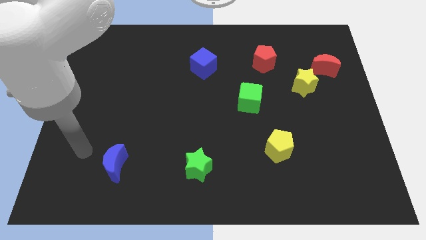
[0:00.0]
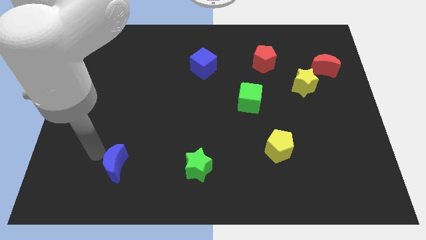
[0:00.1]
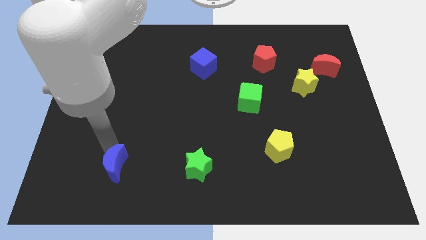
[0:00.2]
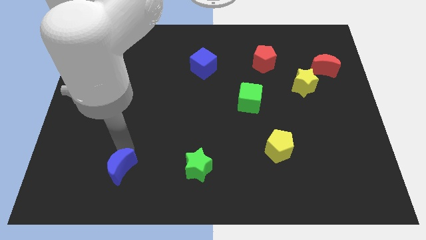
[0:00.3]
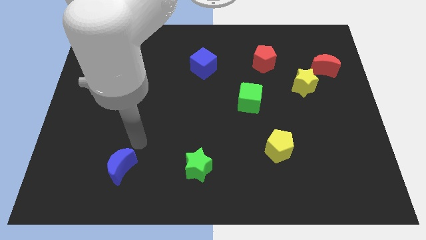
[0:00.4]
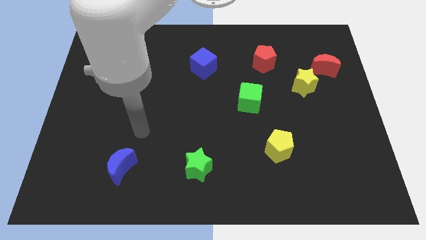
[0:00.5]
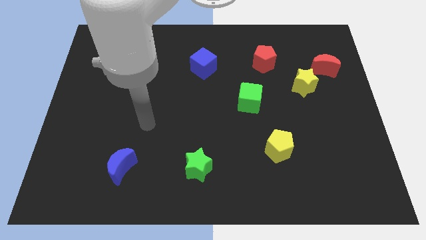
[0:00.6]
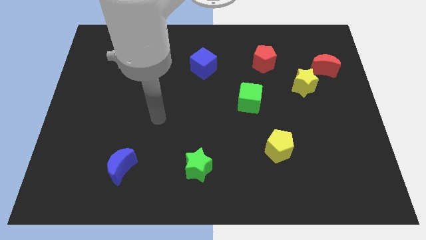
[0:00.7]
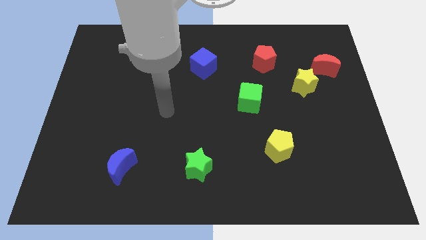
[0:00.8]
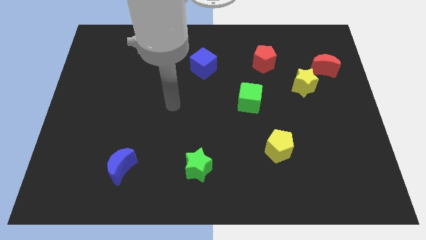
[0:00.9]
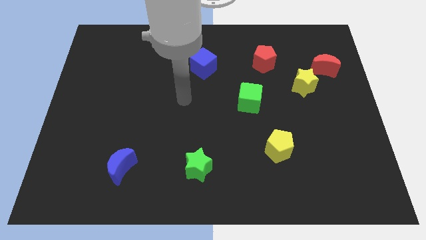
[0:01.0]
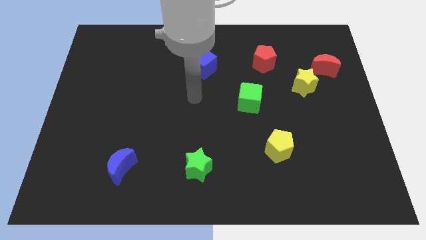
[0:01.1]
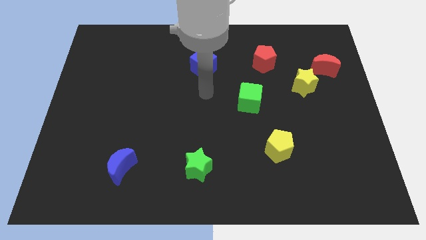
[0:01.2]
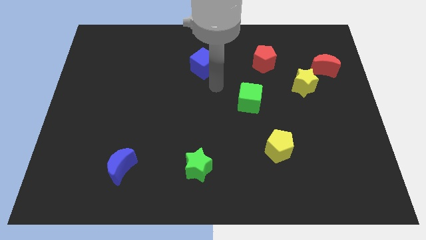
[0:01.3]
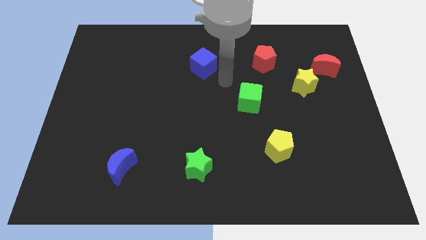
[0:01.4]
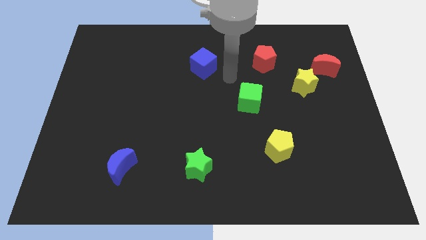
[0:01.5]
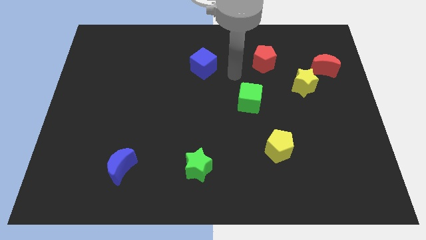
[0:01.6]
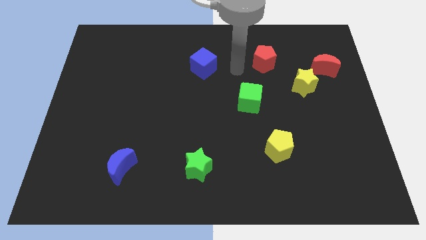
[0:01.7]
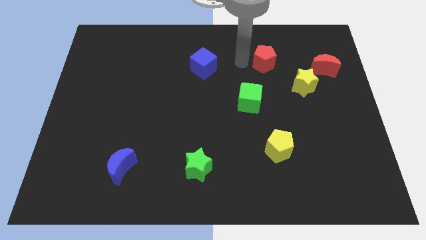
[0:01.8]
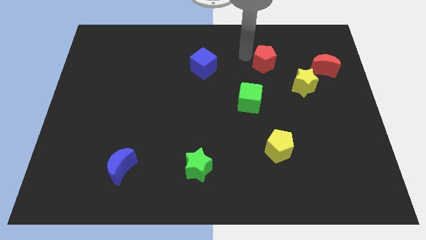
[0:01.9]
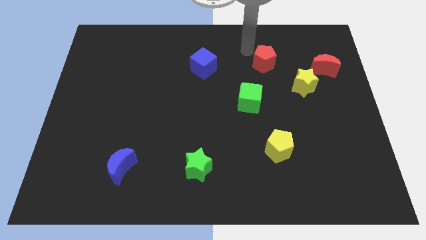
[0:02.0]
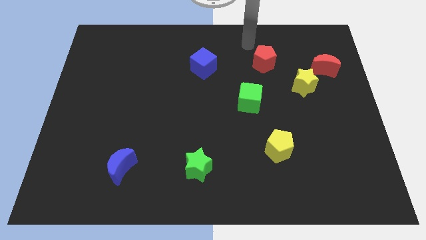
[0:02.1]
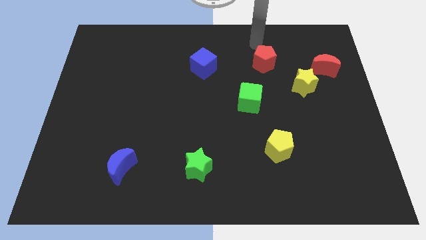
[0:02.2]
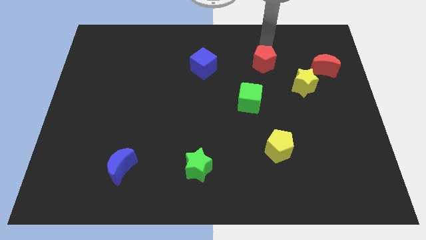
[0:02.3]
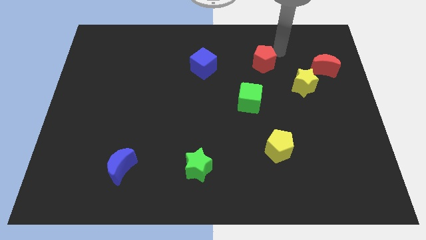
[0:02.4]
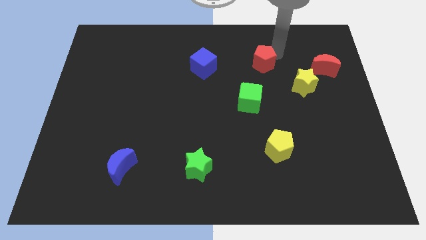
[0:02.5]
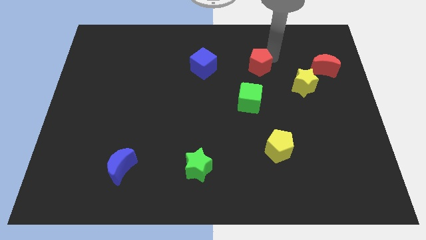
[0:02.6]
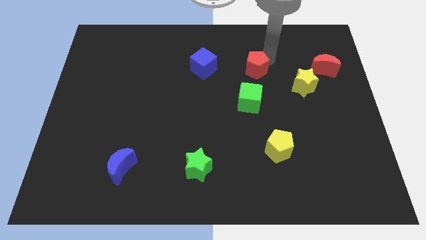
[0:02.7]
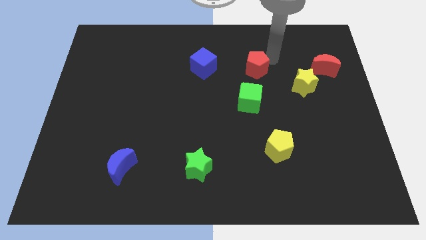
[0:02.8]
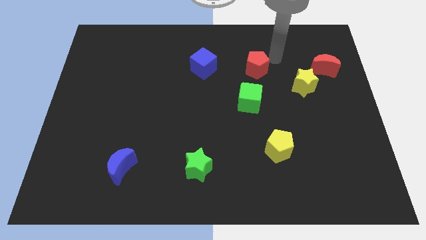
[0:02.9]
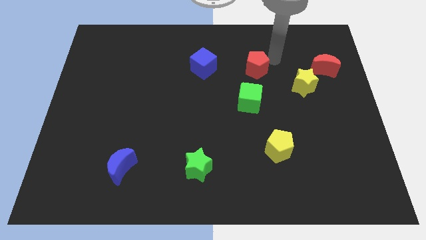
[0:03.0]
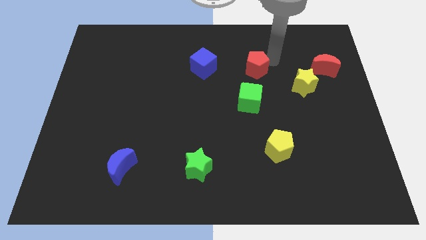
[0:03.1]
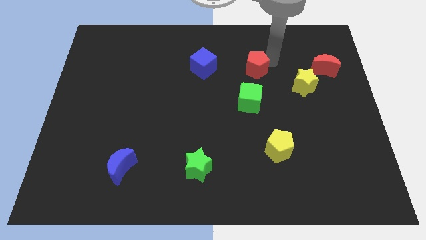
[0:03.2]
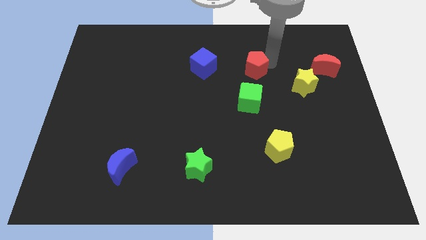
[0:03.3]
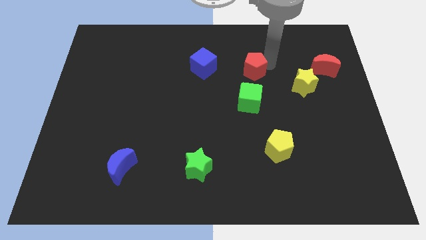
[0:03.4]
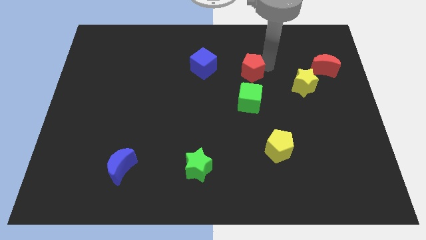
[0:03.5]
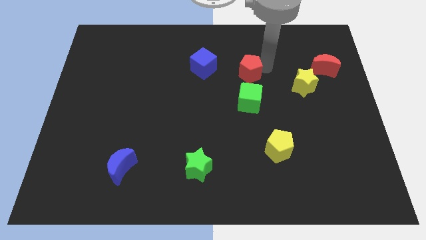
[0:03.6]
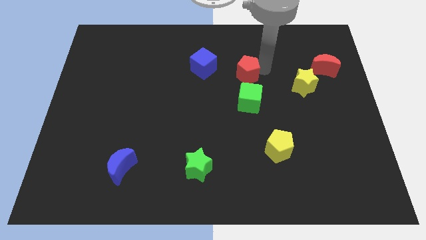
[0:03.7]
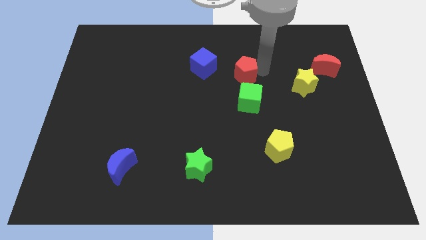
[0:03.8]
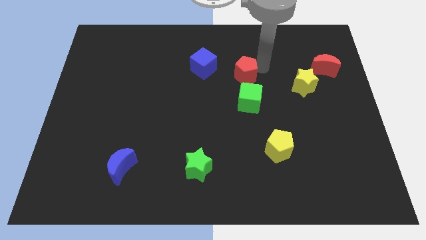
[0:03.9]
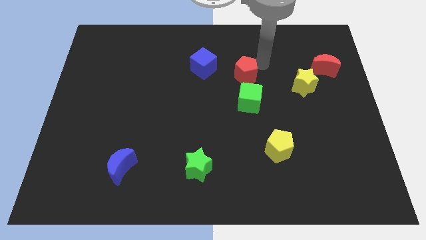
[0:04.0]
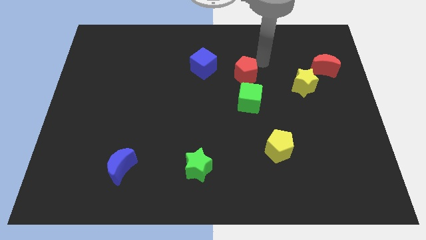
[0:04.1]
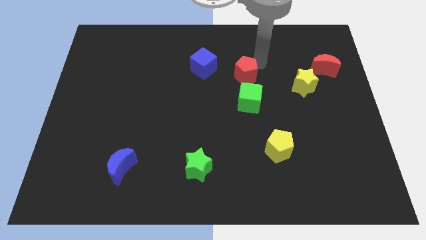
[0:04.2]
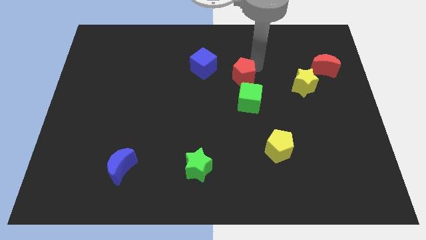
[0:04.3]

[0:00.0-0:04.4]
slightly slide the red pentagon diagonally down and to the left

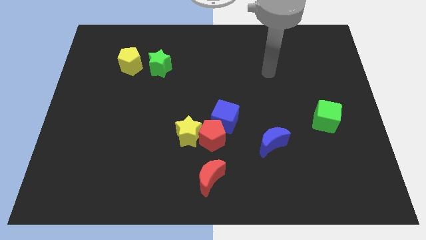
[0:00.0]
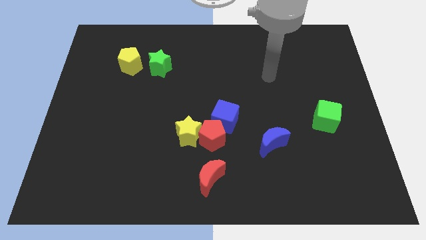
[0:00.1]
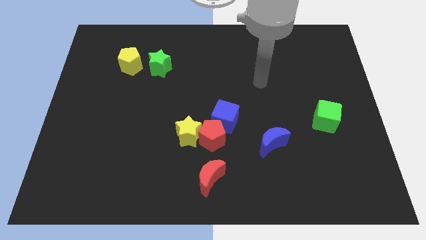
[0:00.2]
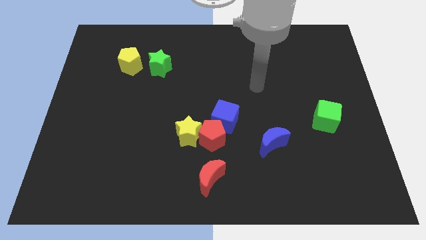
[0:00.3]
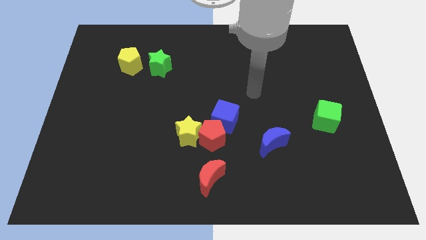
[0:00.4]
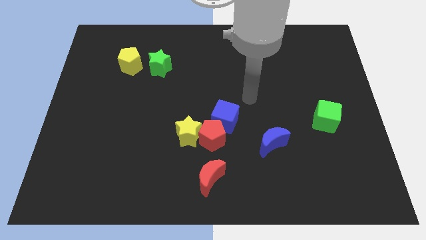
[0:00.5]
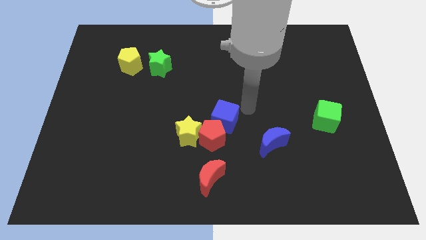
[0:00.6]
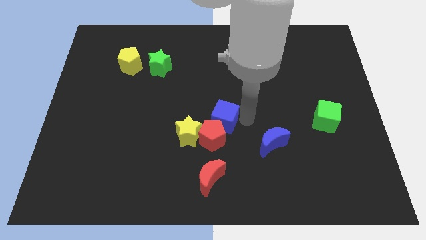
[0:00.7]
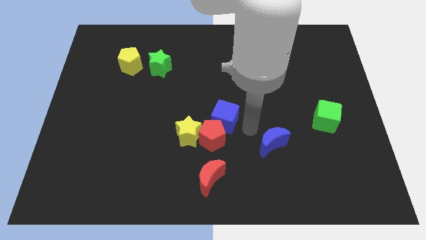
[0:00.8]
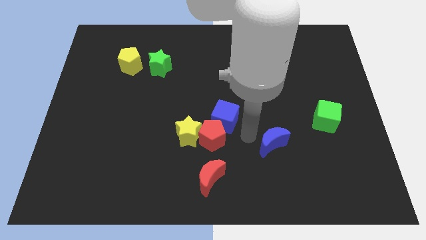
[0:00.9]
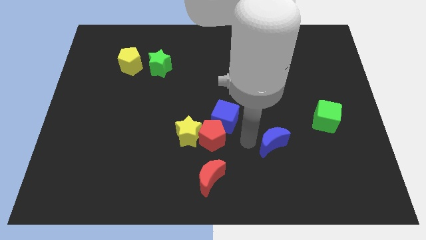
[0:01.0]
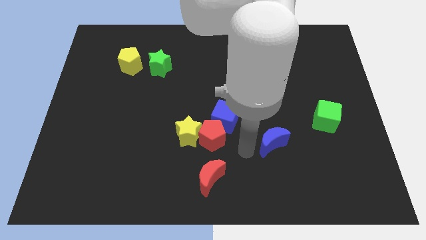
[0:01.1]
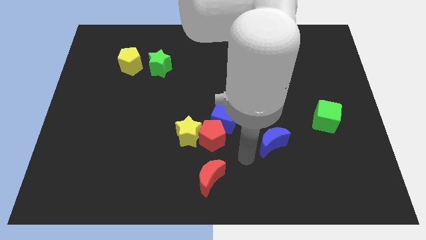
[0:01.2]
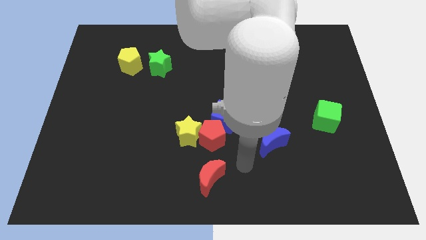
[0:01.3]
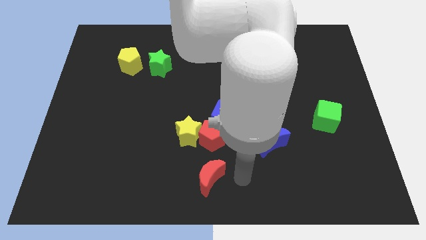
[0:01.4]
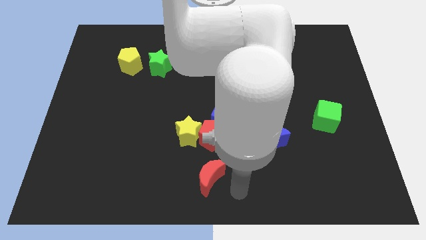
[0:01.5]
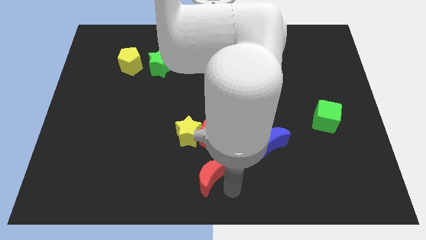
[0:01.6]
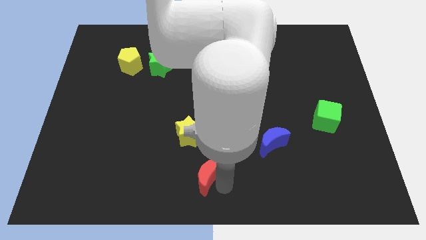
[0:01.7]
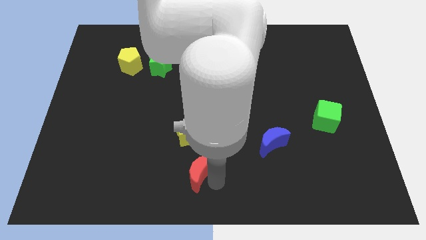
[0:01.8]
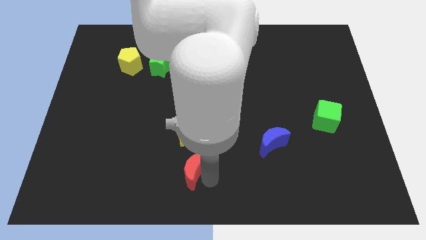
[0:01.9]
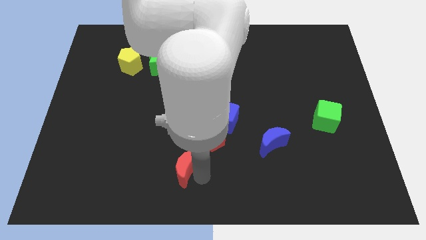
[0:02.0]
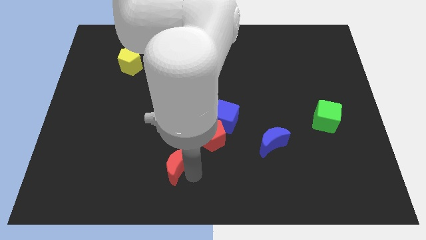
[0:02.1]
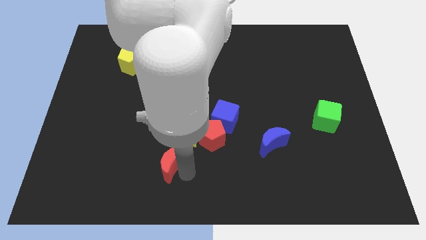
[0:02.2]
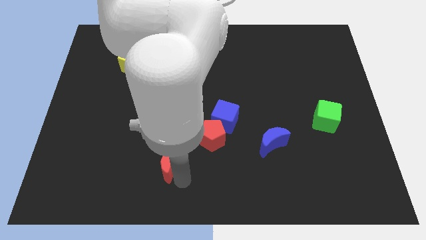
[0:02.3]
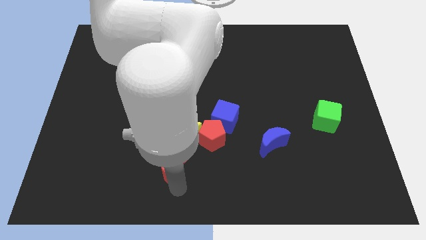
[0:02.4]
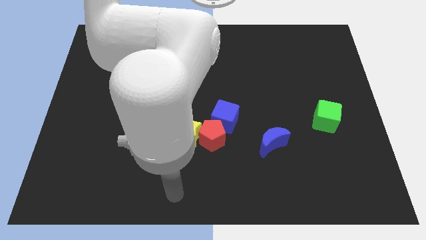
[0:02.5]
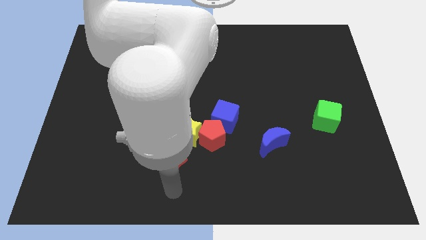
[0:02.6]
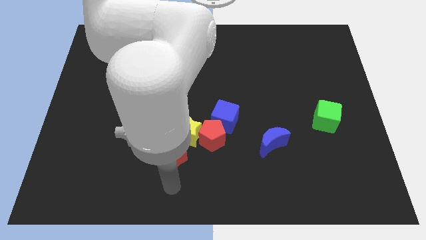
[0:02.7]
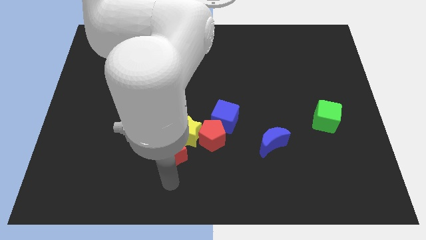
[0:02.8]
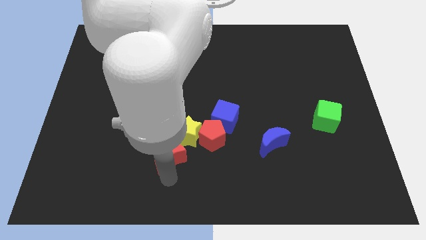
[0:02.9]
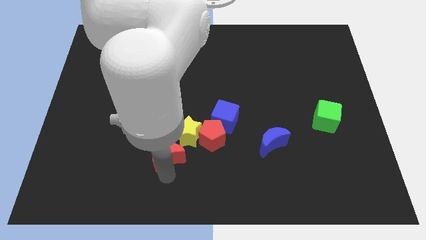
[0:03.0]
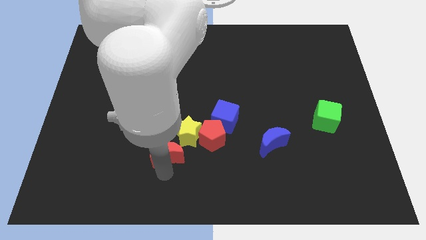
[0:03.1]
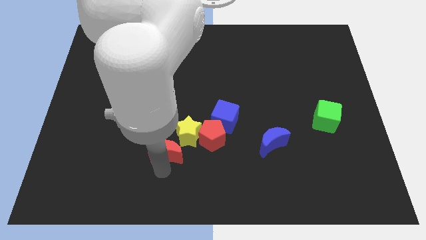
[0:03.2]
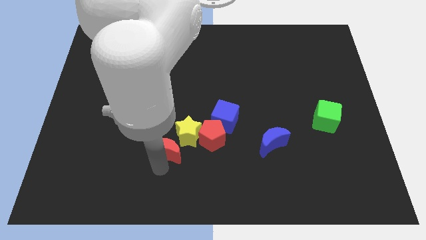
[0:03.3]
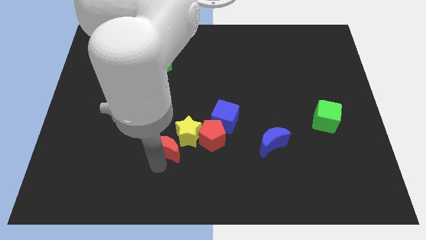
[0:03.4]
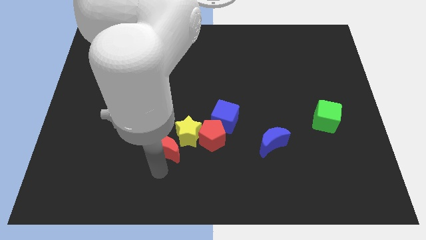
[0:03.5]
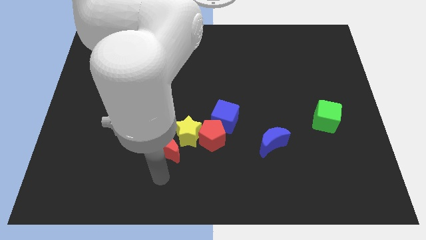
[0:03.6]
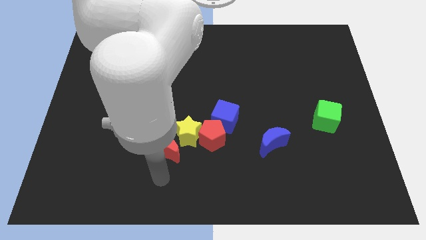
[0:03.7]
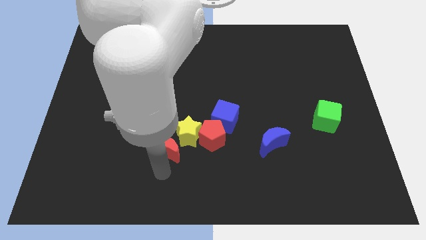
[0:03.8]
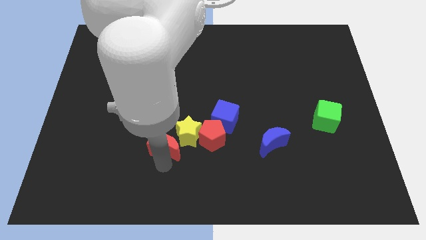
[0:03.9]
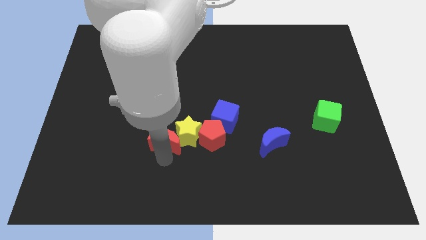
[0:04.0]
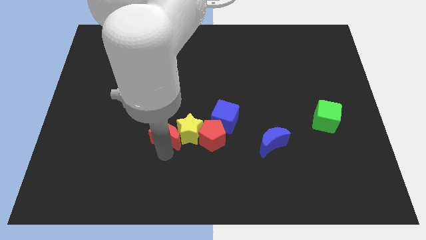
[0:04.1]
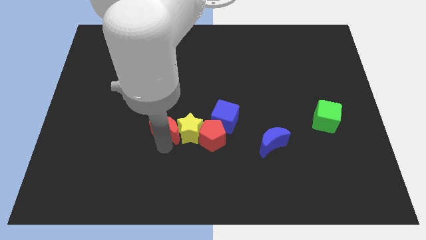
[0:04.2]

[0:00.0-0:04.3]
move the red moon upwards somewhat
